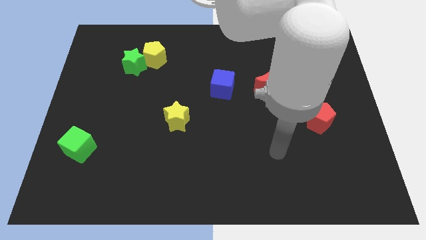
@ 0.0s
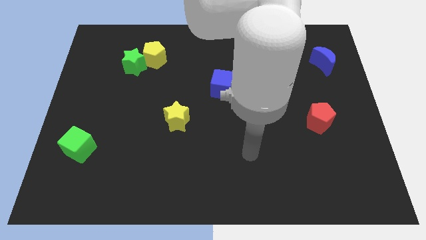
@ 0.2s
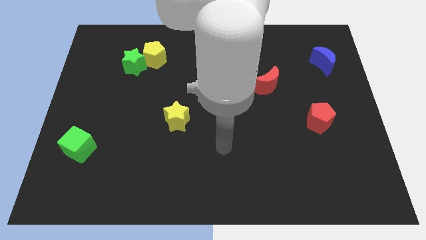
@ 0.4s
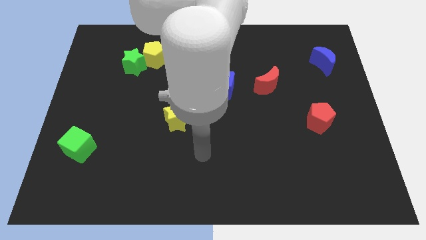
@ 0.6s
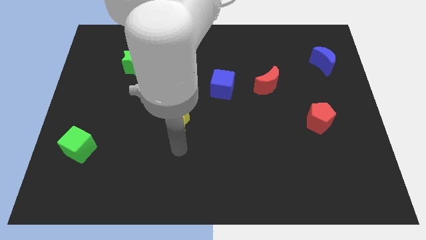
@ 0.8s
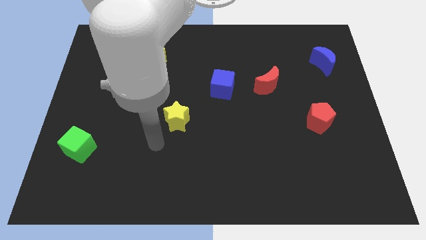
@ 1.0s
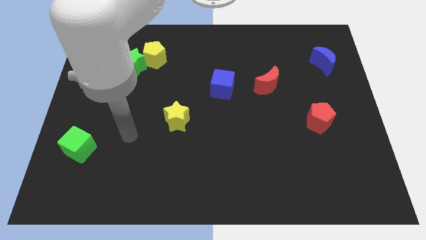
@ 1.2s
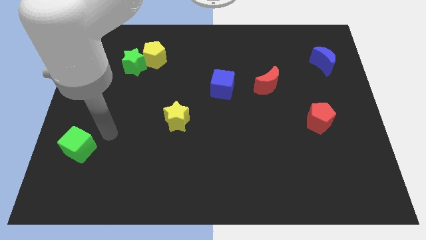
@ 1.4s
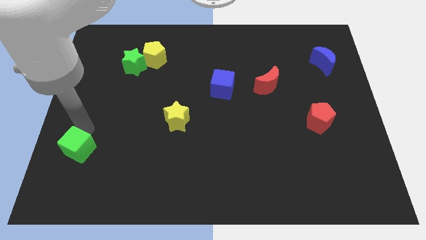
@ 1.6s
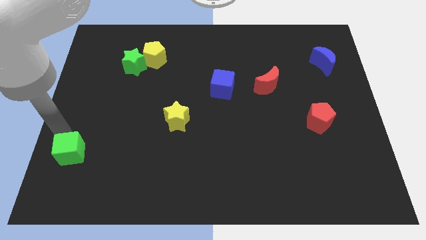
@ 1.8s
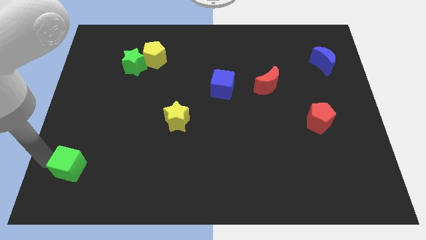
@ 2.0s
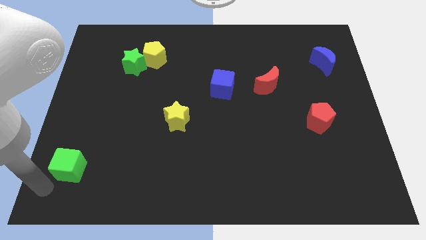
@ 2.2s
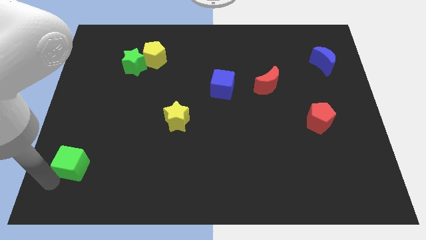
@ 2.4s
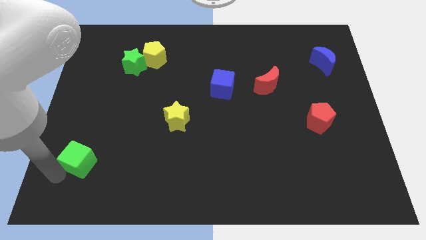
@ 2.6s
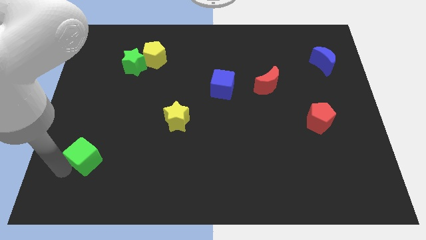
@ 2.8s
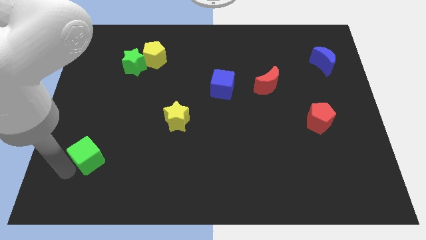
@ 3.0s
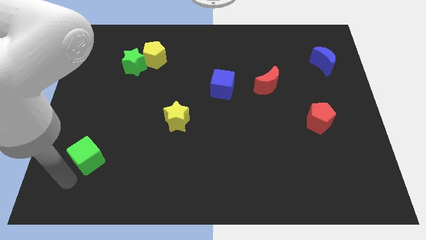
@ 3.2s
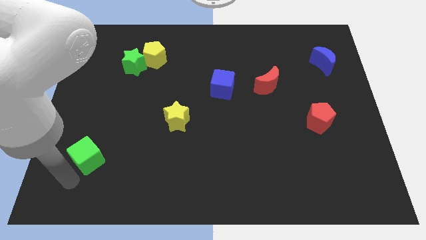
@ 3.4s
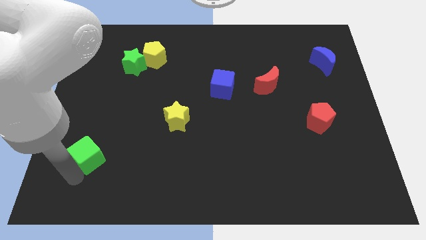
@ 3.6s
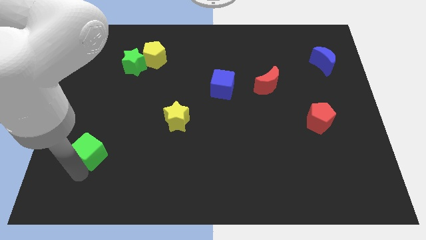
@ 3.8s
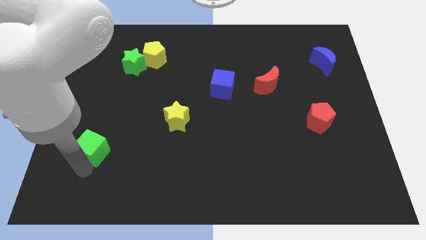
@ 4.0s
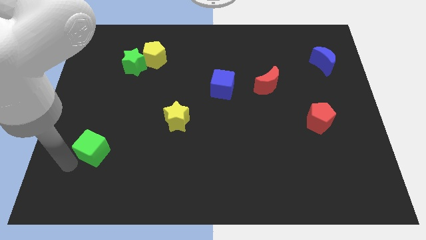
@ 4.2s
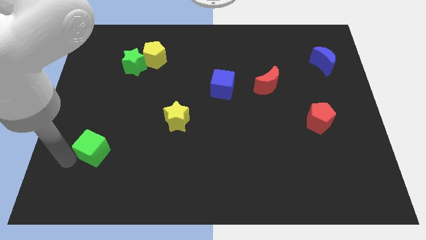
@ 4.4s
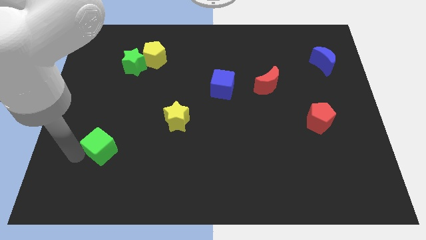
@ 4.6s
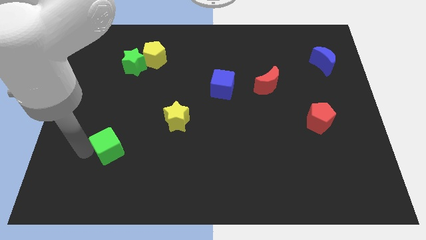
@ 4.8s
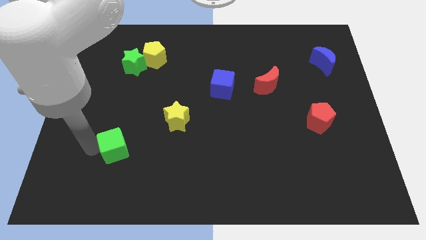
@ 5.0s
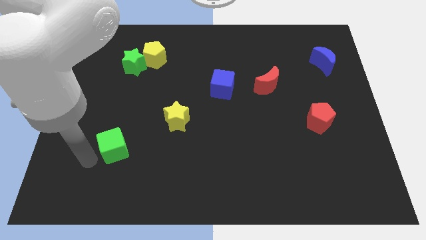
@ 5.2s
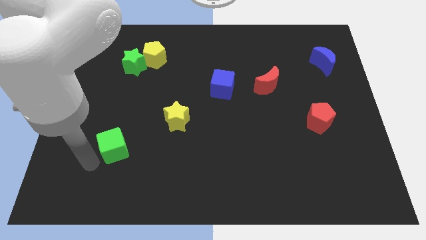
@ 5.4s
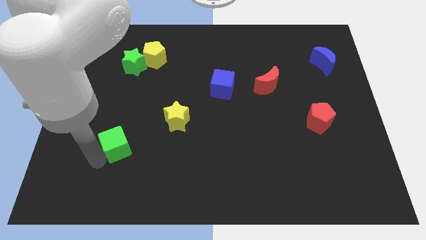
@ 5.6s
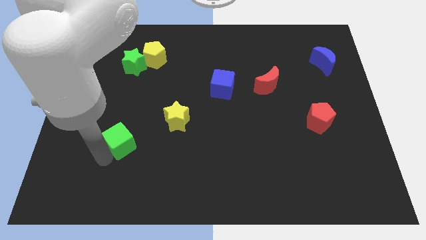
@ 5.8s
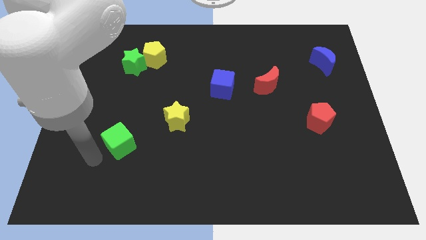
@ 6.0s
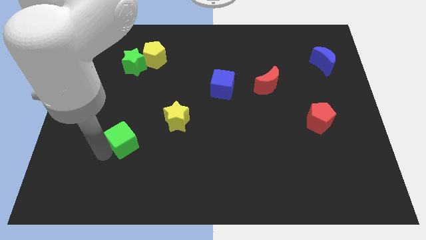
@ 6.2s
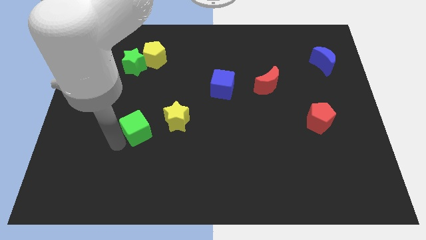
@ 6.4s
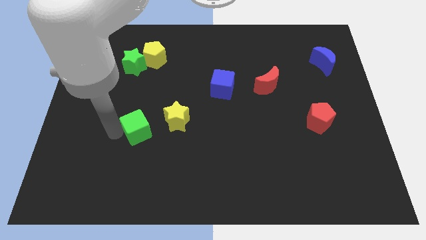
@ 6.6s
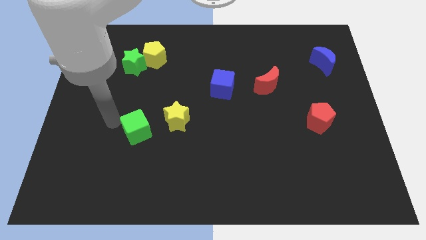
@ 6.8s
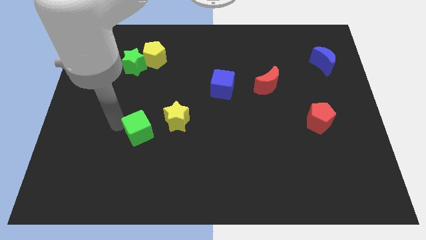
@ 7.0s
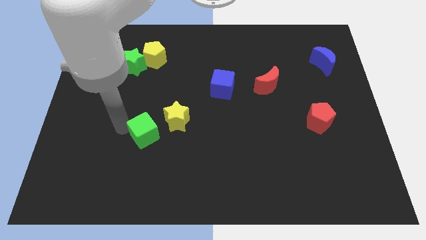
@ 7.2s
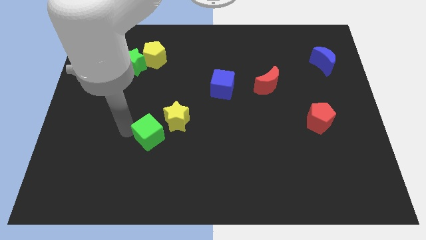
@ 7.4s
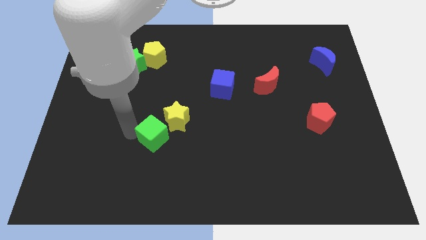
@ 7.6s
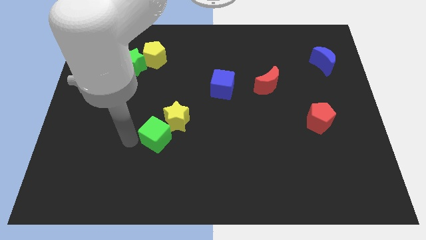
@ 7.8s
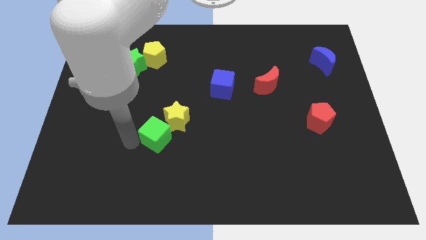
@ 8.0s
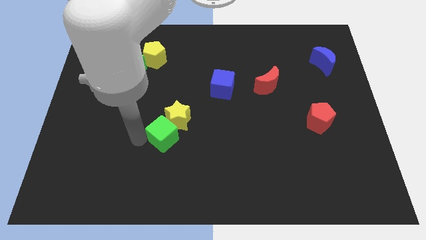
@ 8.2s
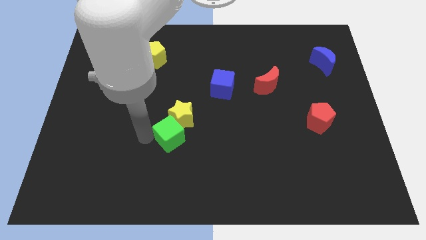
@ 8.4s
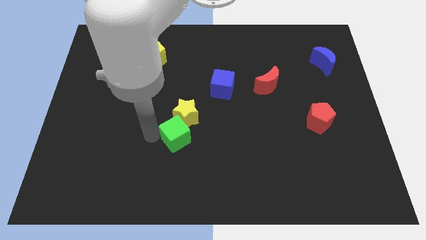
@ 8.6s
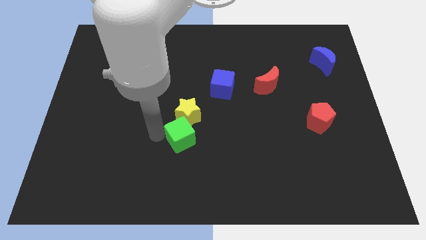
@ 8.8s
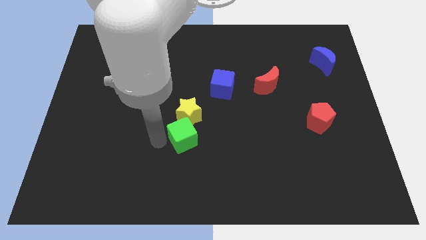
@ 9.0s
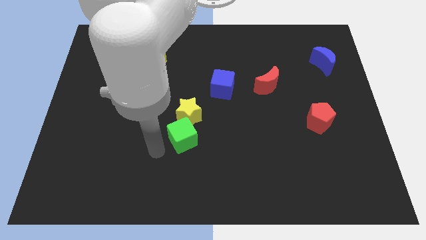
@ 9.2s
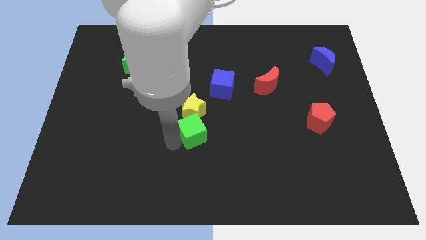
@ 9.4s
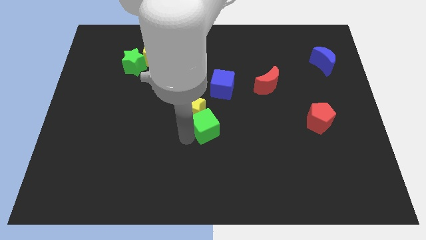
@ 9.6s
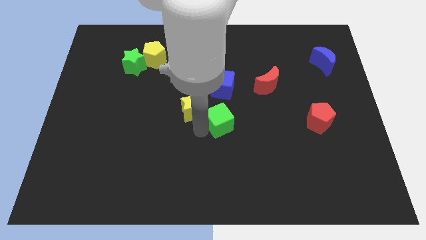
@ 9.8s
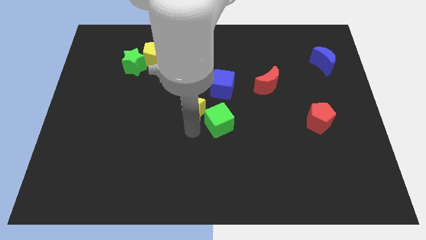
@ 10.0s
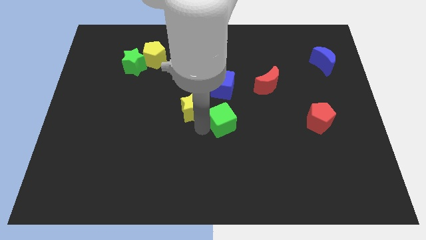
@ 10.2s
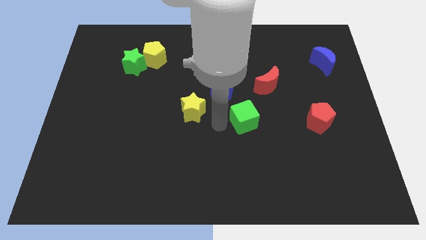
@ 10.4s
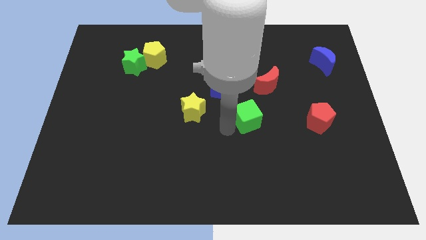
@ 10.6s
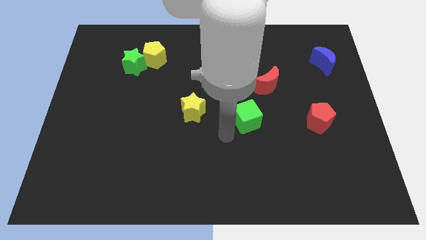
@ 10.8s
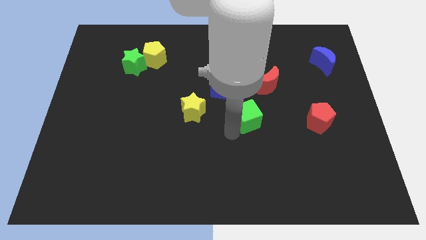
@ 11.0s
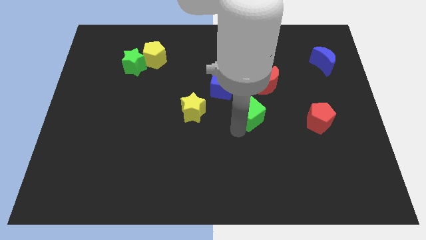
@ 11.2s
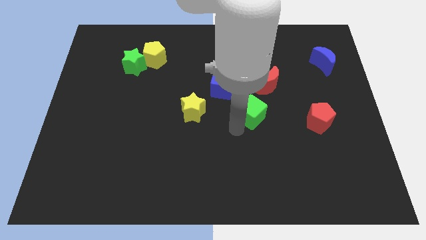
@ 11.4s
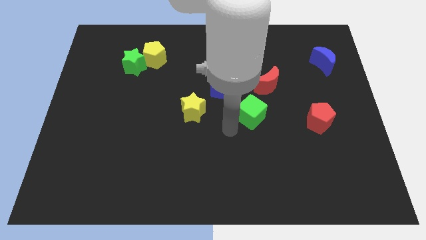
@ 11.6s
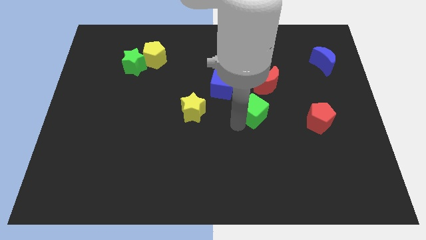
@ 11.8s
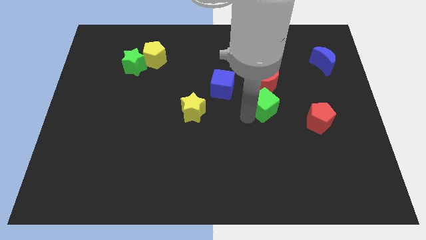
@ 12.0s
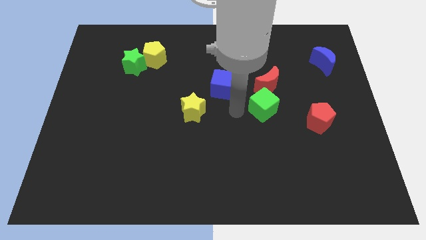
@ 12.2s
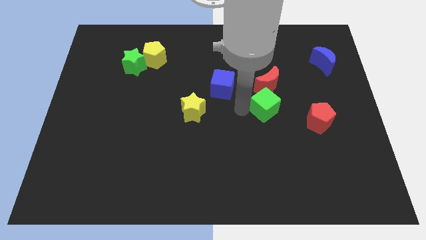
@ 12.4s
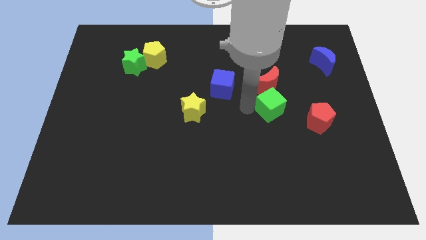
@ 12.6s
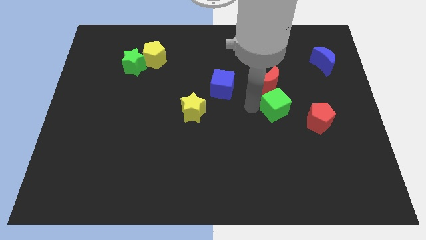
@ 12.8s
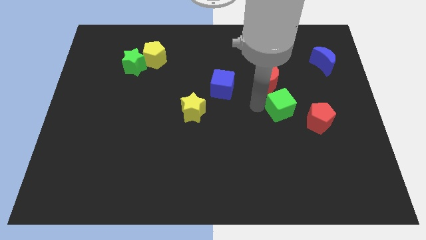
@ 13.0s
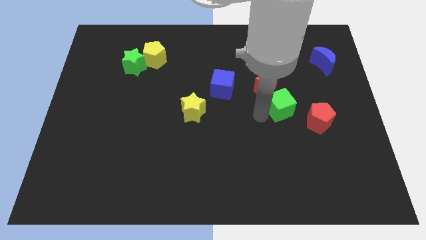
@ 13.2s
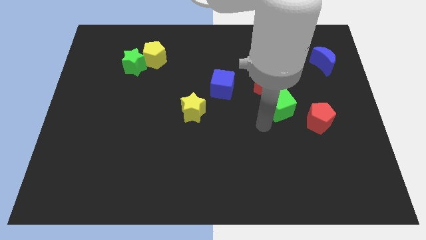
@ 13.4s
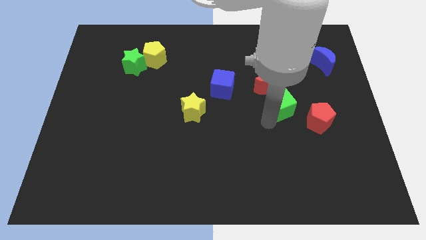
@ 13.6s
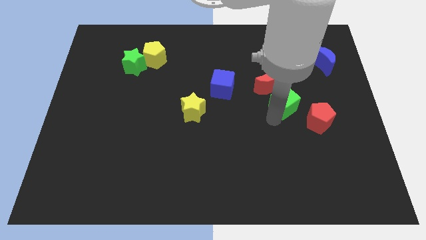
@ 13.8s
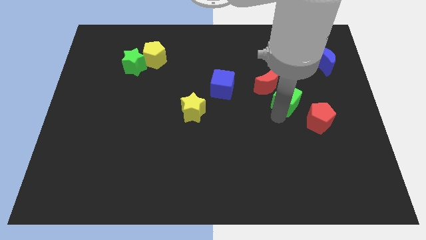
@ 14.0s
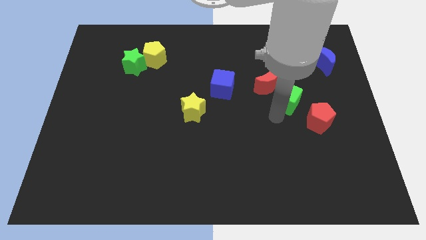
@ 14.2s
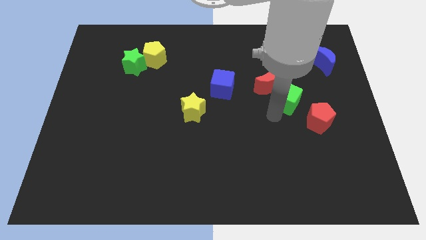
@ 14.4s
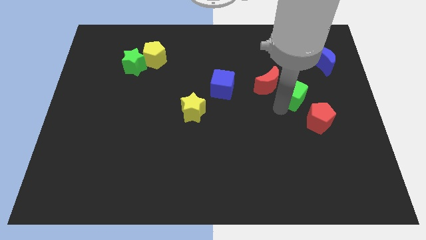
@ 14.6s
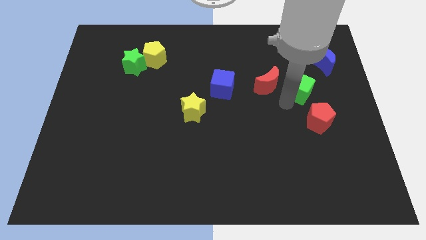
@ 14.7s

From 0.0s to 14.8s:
move the green cube to the bottom left of the blue moon
